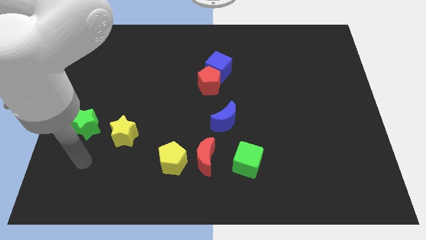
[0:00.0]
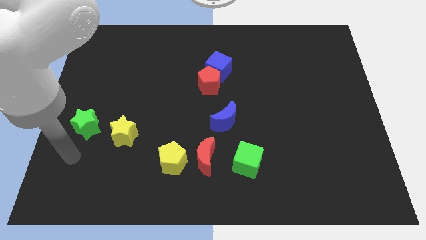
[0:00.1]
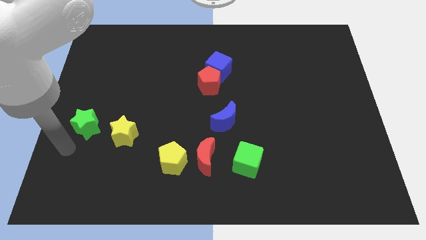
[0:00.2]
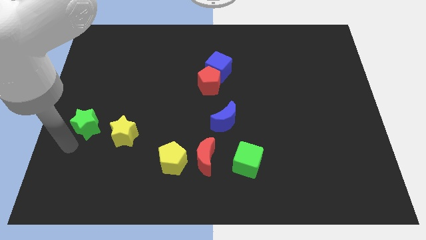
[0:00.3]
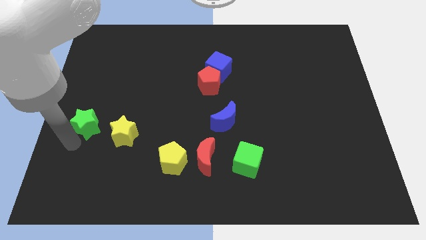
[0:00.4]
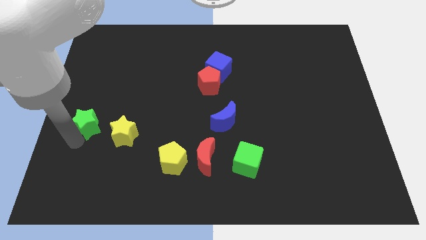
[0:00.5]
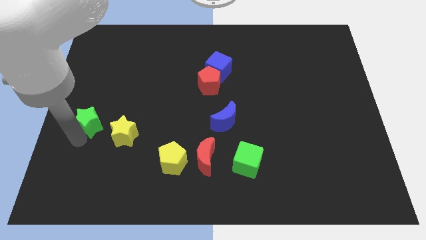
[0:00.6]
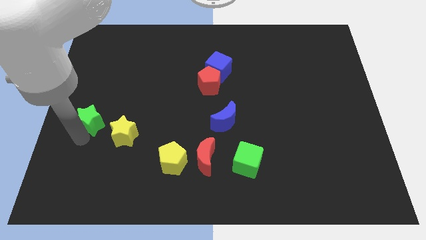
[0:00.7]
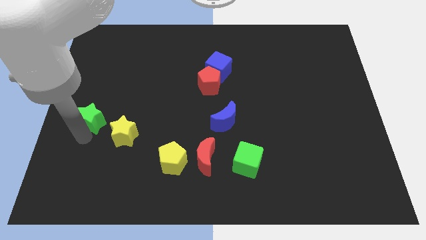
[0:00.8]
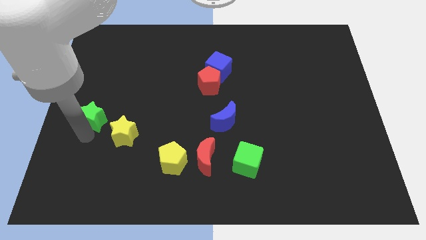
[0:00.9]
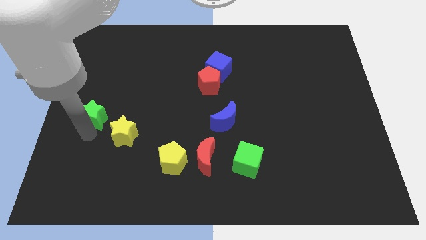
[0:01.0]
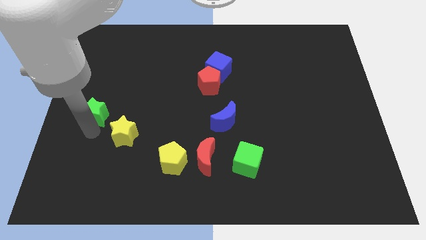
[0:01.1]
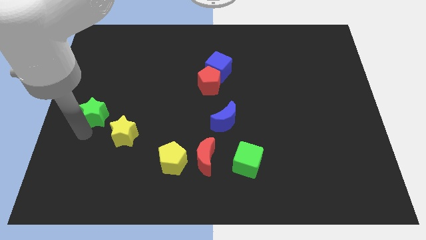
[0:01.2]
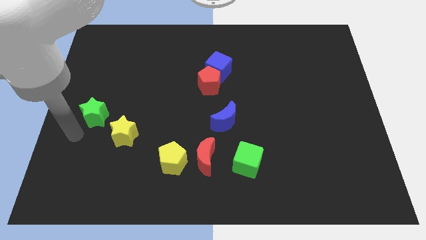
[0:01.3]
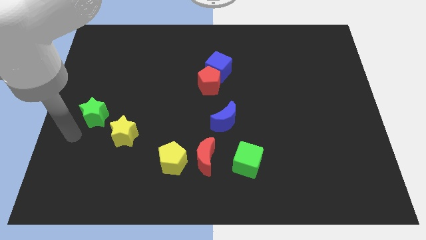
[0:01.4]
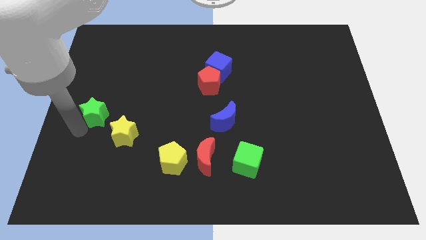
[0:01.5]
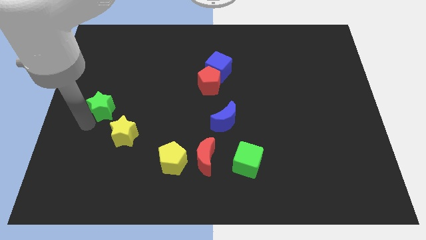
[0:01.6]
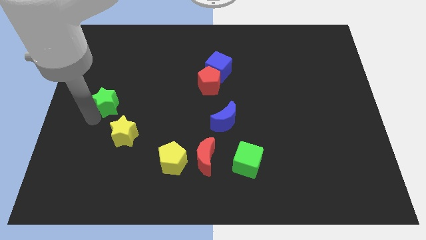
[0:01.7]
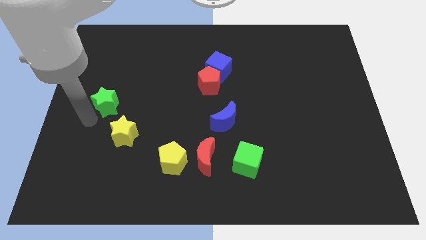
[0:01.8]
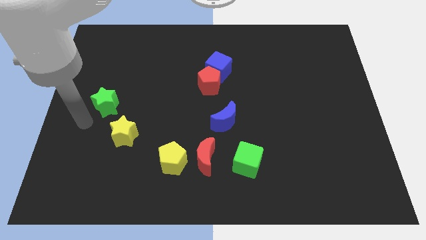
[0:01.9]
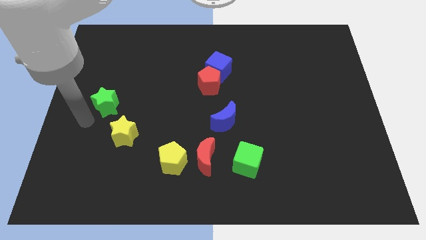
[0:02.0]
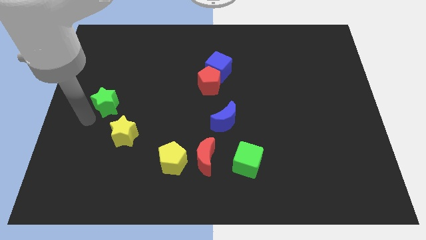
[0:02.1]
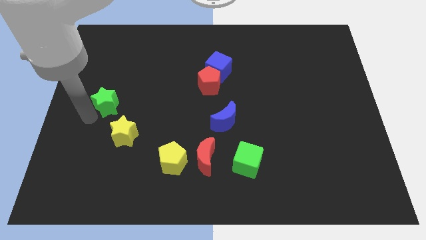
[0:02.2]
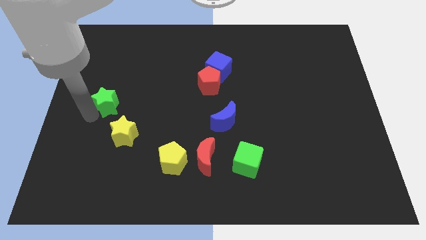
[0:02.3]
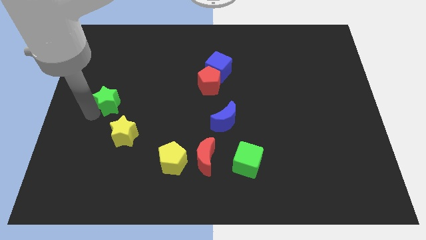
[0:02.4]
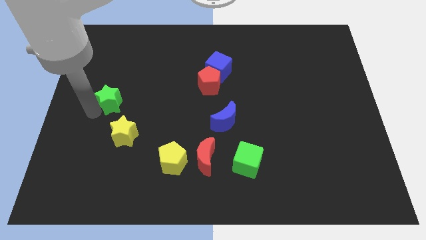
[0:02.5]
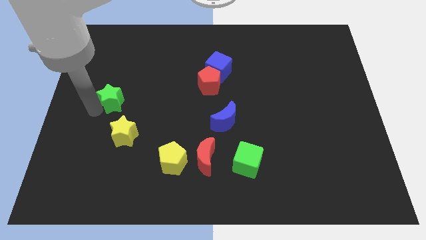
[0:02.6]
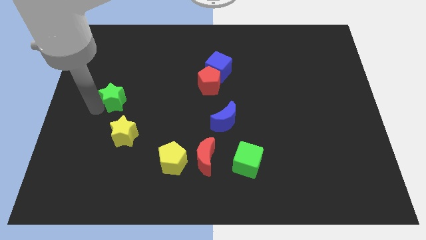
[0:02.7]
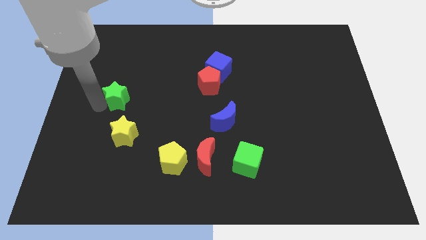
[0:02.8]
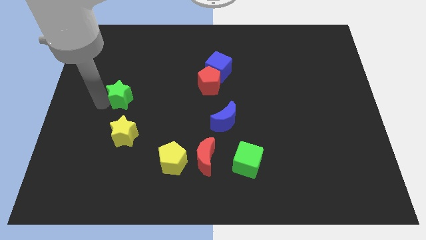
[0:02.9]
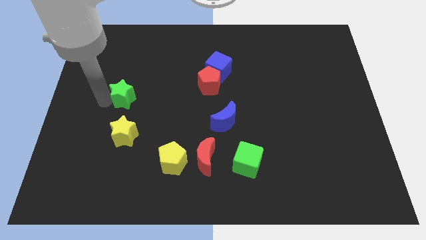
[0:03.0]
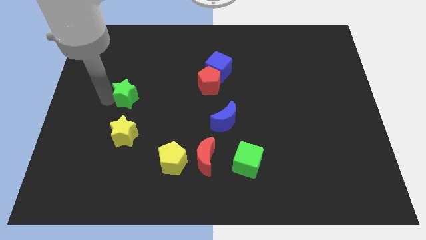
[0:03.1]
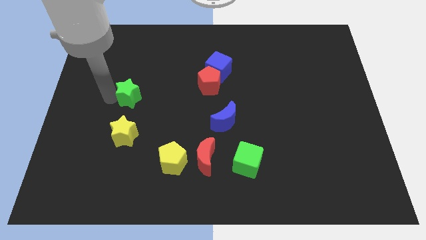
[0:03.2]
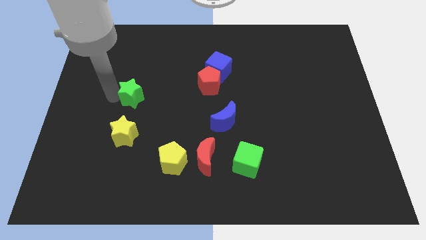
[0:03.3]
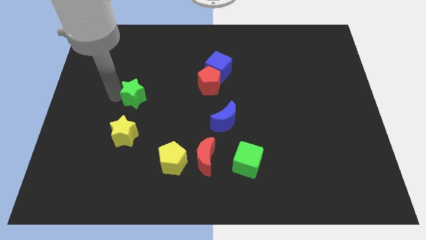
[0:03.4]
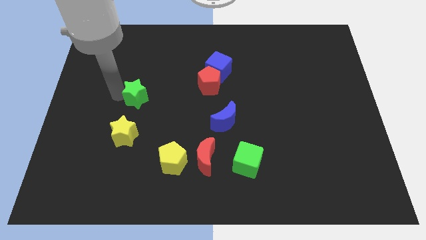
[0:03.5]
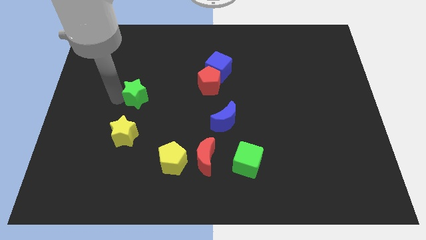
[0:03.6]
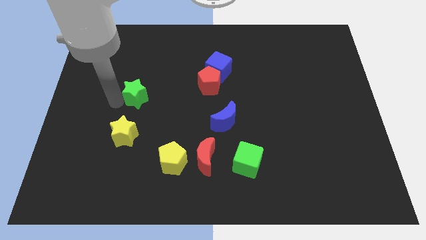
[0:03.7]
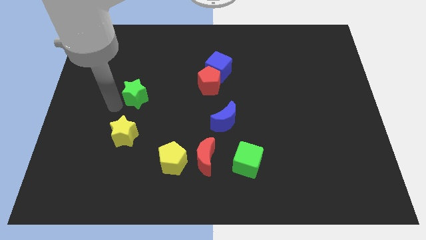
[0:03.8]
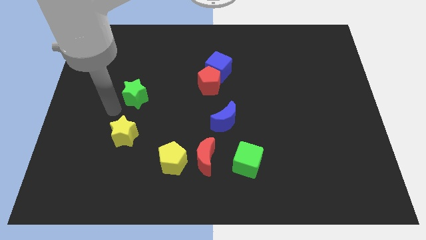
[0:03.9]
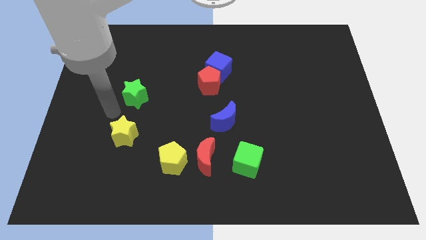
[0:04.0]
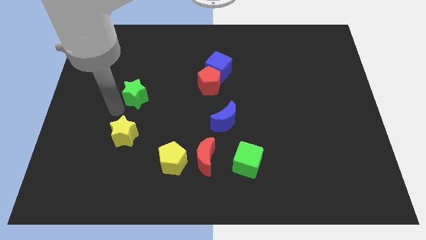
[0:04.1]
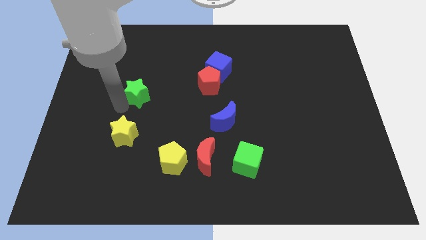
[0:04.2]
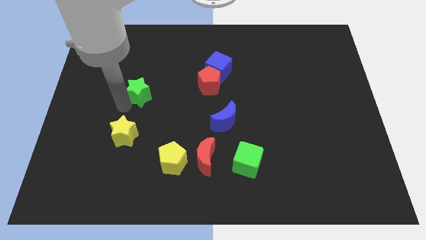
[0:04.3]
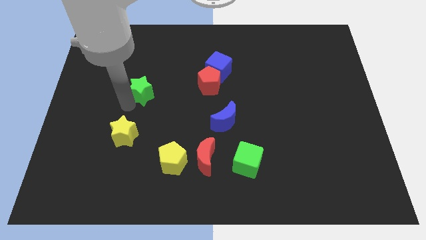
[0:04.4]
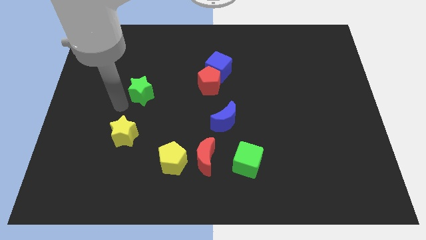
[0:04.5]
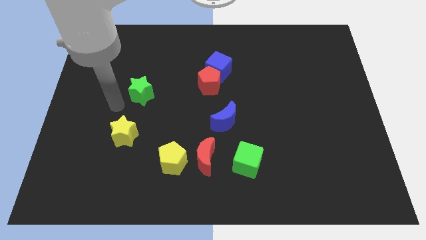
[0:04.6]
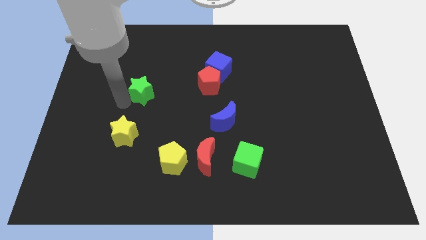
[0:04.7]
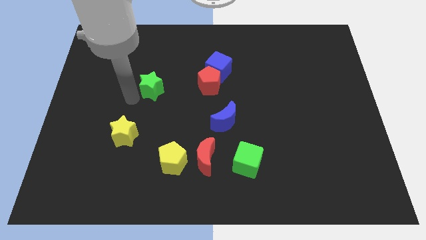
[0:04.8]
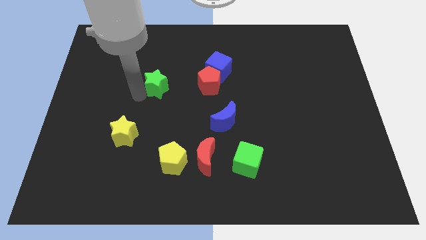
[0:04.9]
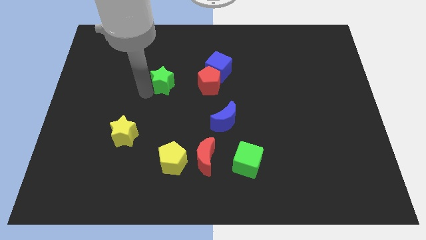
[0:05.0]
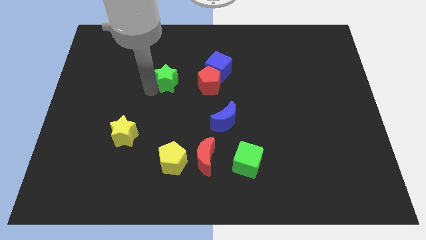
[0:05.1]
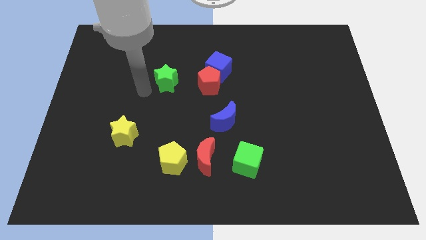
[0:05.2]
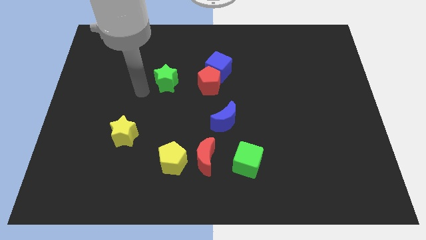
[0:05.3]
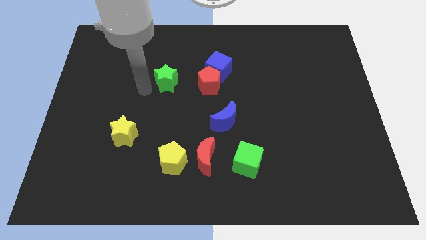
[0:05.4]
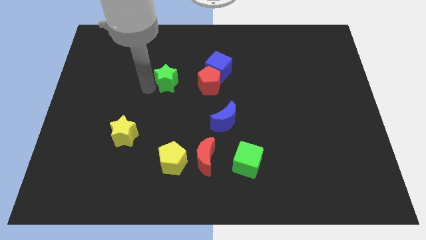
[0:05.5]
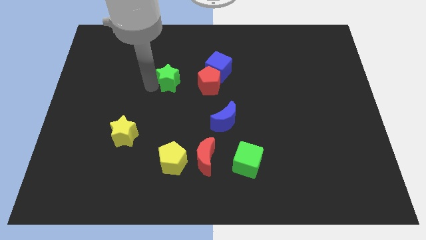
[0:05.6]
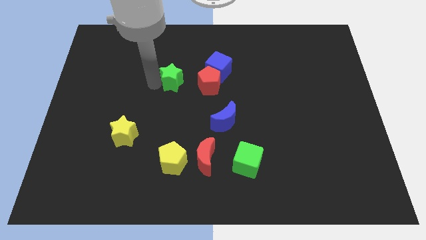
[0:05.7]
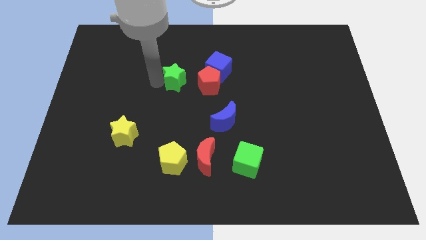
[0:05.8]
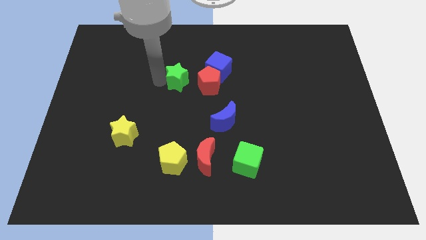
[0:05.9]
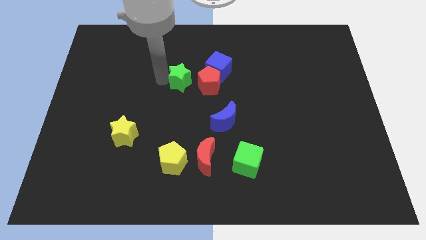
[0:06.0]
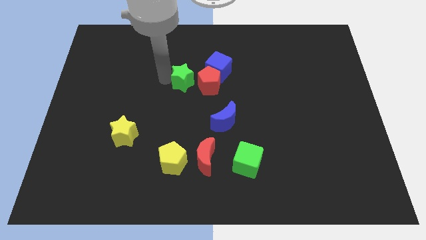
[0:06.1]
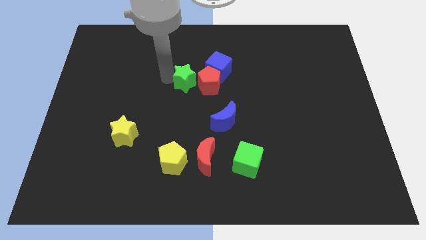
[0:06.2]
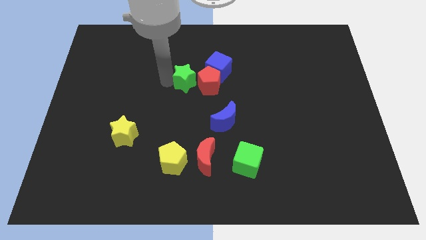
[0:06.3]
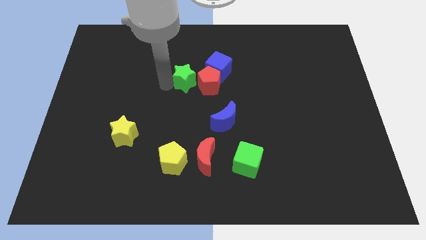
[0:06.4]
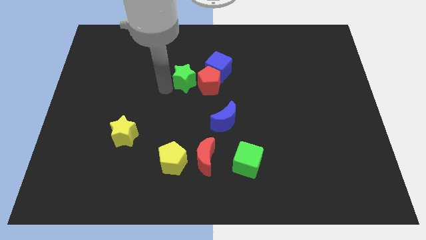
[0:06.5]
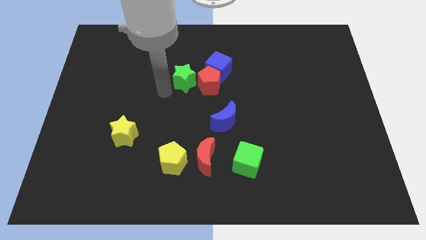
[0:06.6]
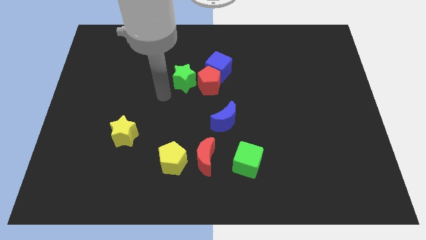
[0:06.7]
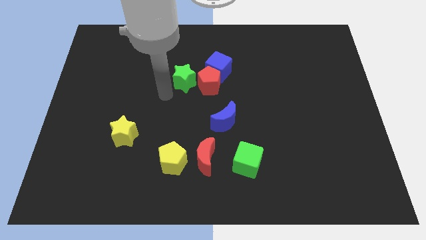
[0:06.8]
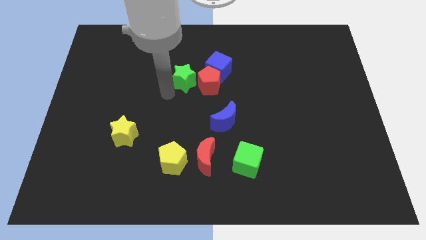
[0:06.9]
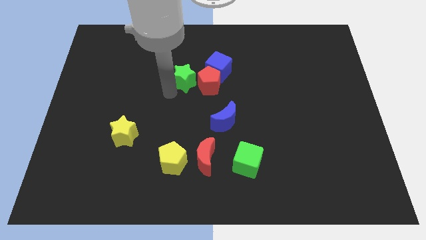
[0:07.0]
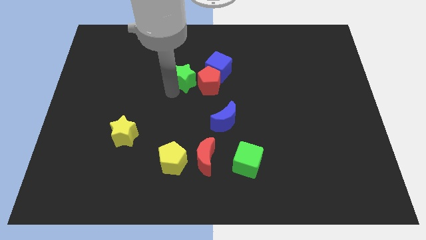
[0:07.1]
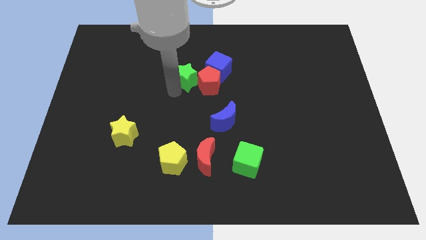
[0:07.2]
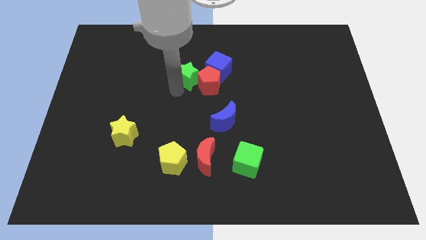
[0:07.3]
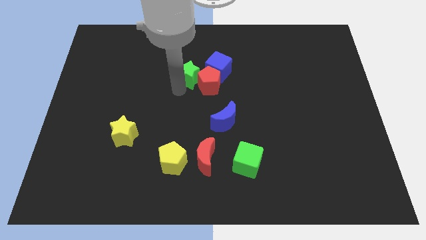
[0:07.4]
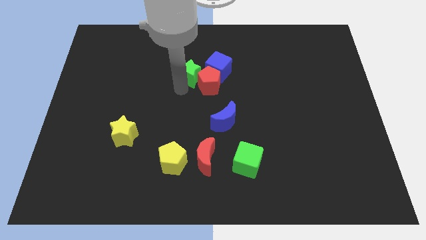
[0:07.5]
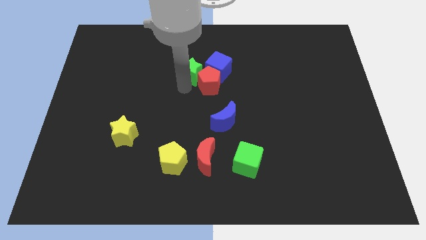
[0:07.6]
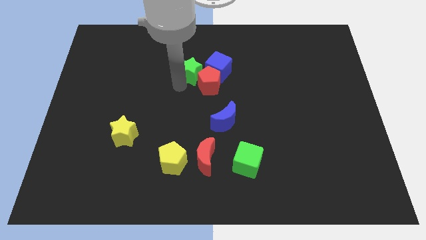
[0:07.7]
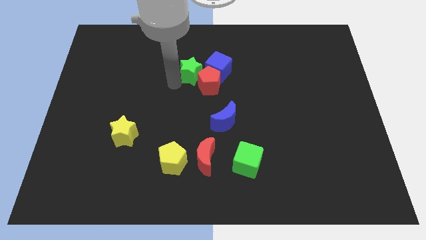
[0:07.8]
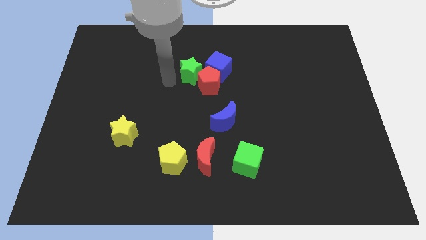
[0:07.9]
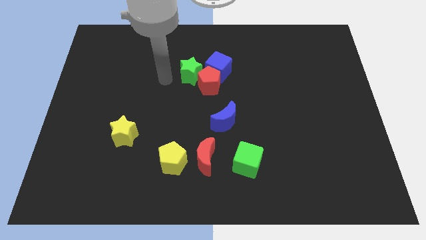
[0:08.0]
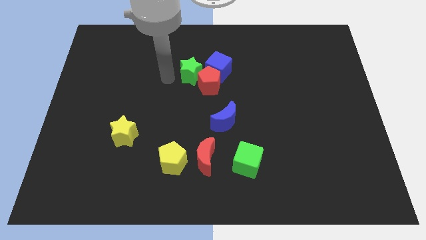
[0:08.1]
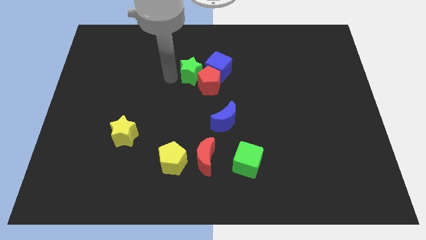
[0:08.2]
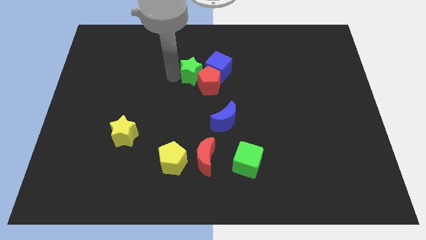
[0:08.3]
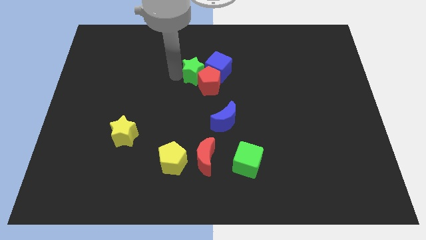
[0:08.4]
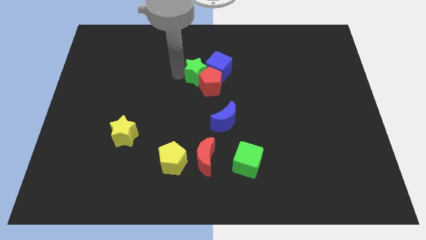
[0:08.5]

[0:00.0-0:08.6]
slide the green star towards the blue cube
